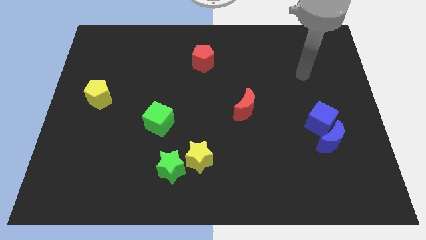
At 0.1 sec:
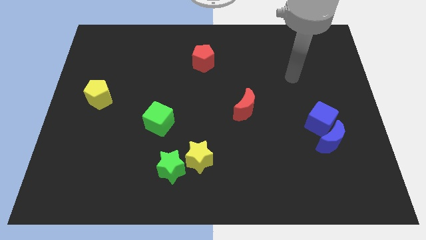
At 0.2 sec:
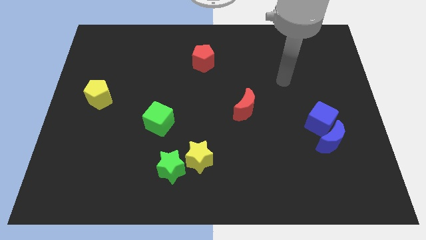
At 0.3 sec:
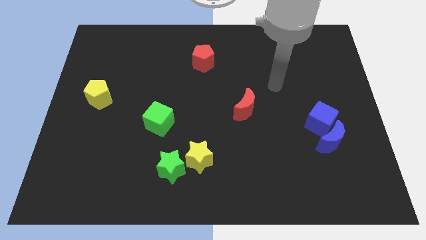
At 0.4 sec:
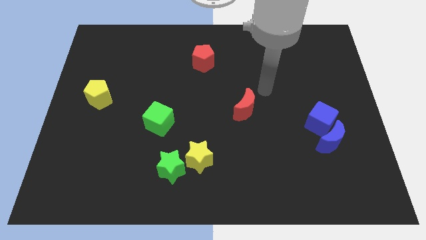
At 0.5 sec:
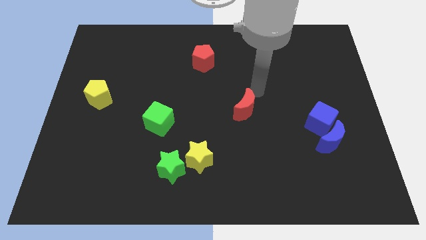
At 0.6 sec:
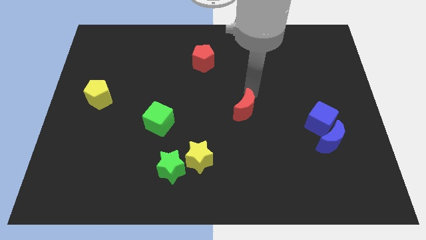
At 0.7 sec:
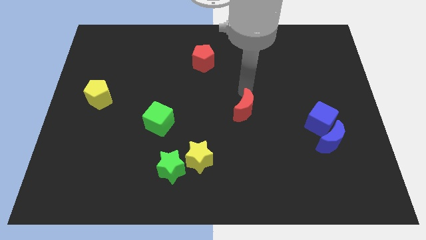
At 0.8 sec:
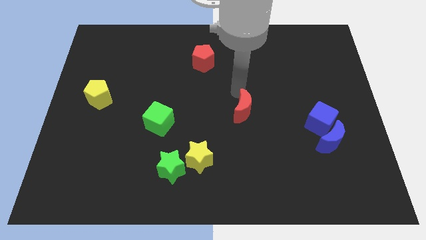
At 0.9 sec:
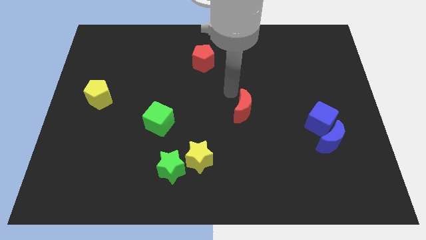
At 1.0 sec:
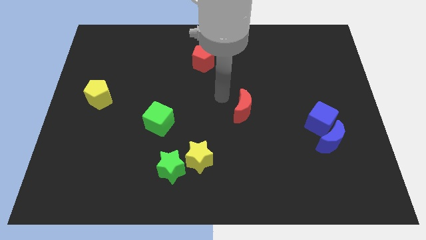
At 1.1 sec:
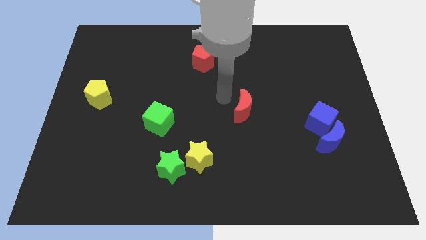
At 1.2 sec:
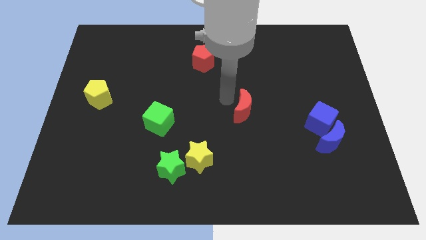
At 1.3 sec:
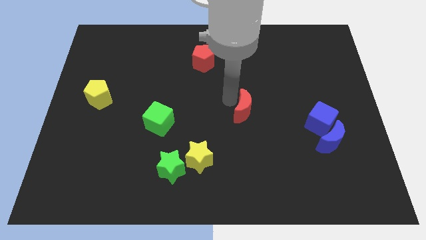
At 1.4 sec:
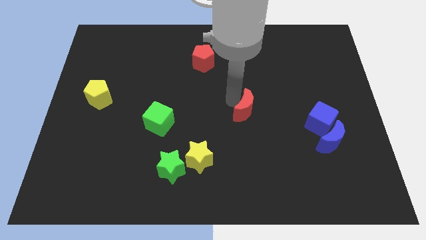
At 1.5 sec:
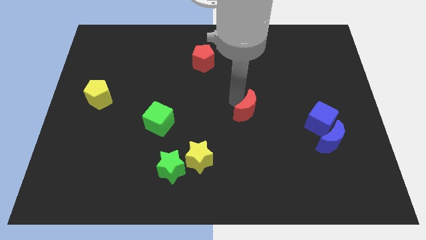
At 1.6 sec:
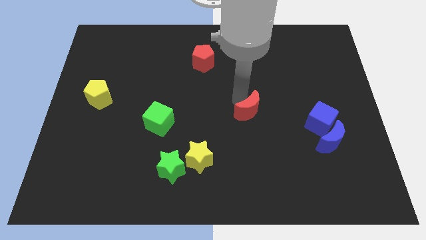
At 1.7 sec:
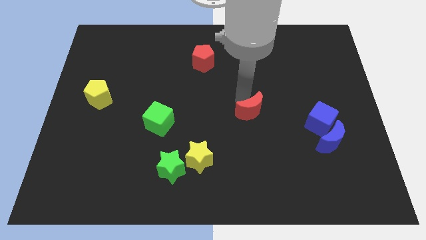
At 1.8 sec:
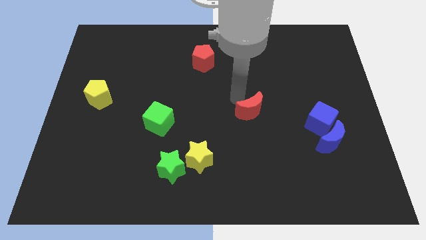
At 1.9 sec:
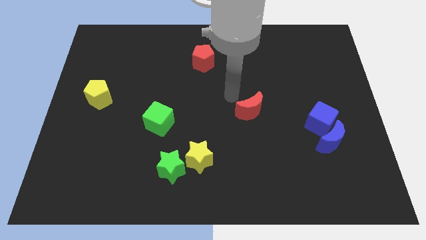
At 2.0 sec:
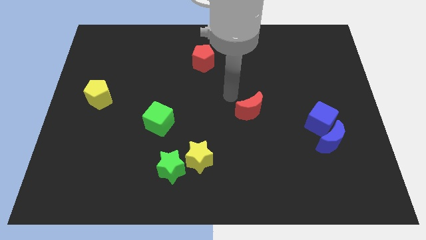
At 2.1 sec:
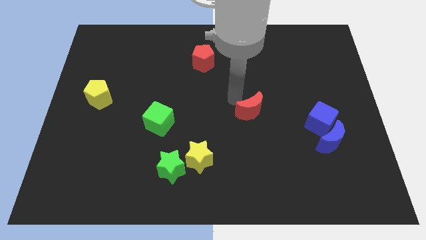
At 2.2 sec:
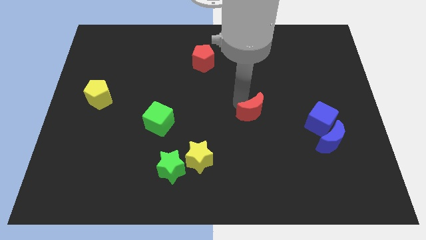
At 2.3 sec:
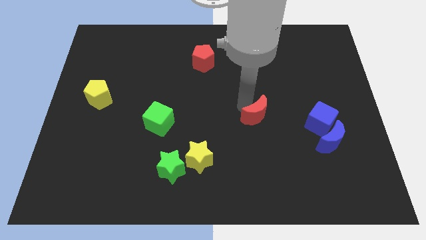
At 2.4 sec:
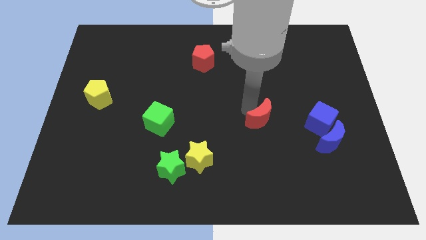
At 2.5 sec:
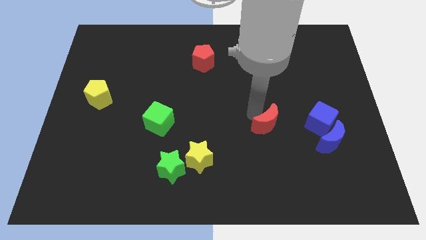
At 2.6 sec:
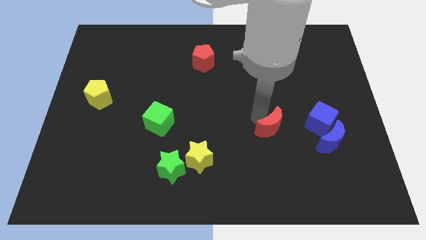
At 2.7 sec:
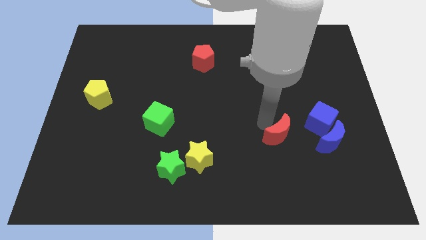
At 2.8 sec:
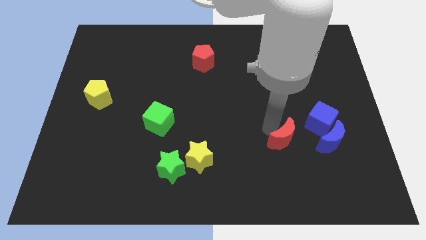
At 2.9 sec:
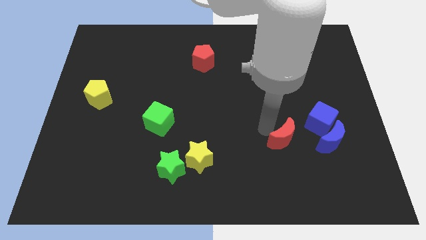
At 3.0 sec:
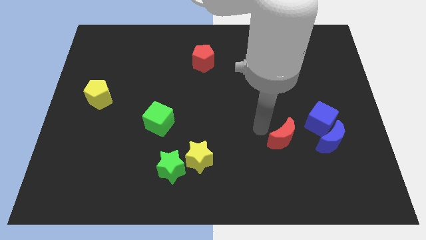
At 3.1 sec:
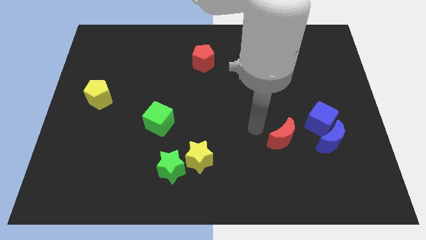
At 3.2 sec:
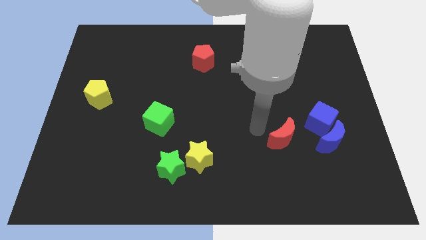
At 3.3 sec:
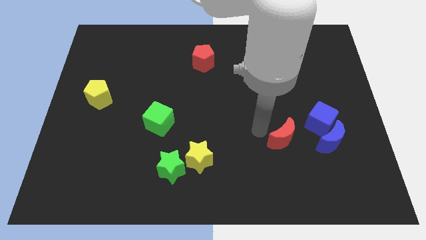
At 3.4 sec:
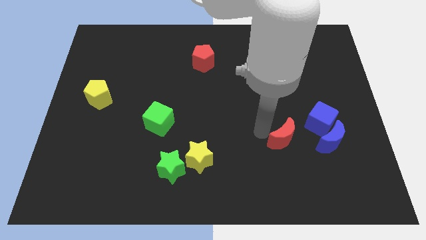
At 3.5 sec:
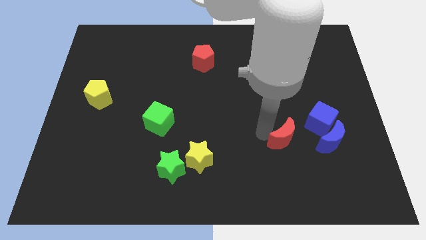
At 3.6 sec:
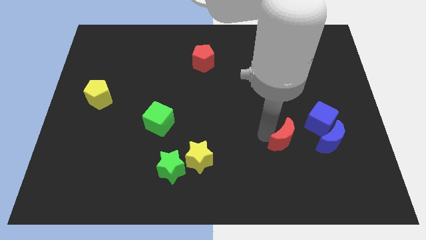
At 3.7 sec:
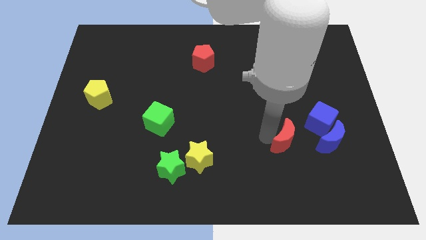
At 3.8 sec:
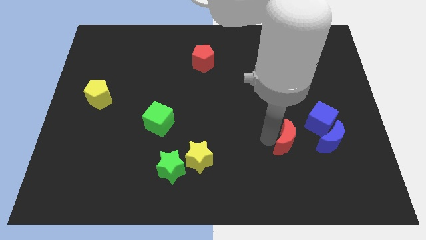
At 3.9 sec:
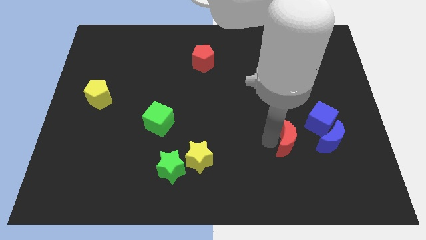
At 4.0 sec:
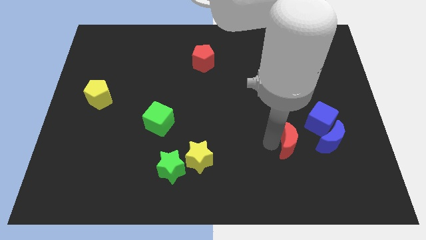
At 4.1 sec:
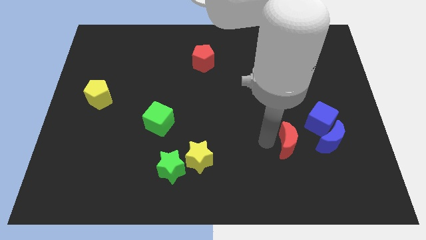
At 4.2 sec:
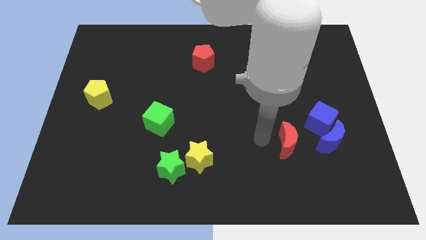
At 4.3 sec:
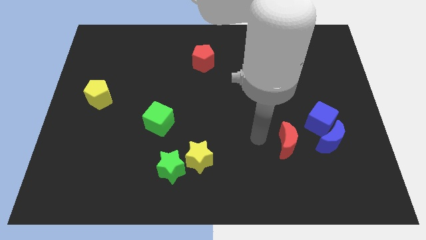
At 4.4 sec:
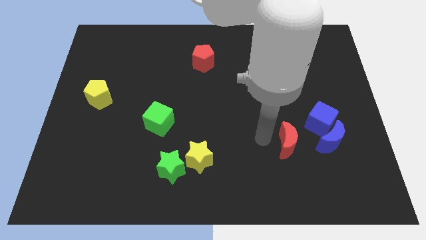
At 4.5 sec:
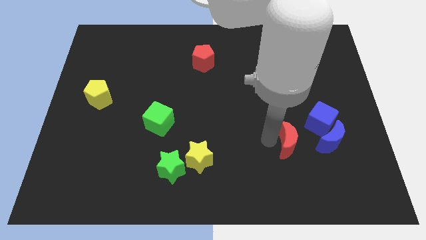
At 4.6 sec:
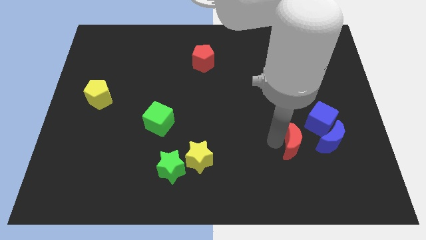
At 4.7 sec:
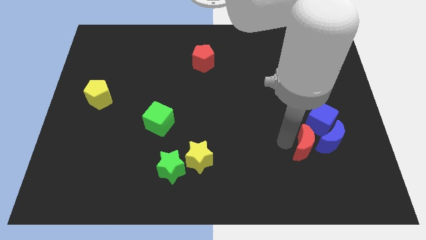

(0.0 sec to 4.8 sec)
put the red moon below the blue cube

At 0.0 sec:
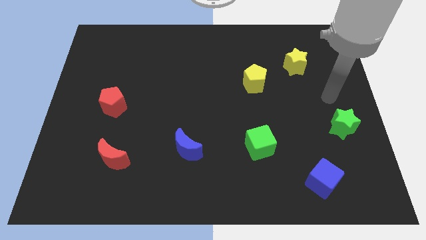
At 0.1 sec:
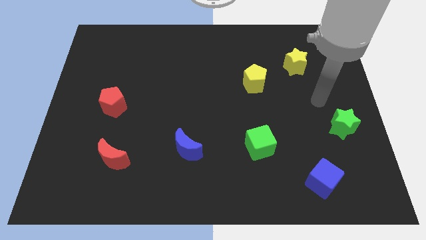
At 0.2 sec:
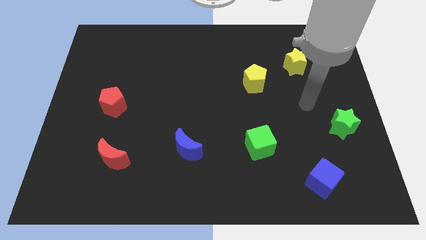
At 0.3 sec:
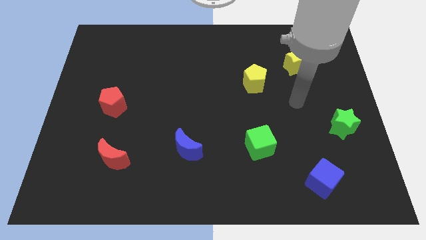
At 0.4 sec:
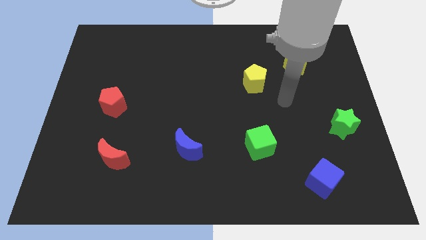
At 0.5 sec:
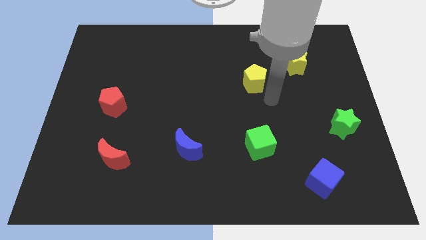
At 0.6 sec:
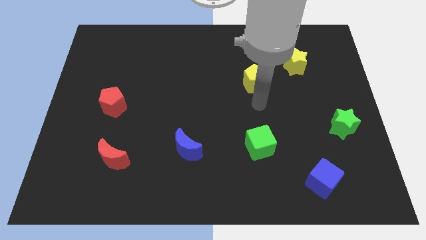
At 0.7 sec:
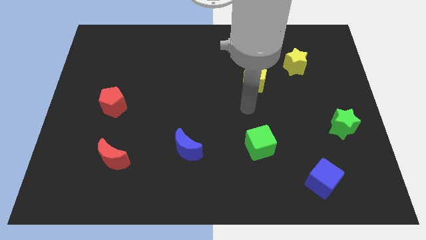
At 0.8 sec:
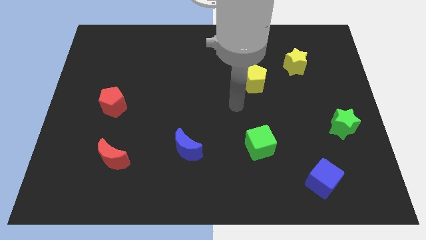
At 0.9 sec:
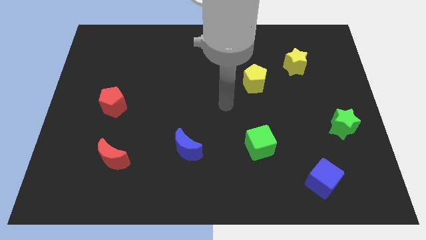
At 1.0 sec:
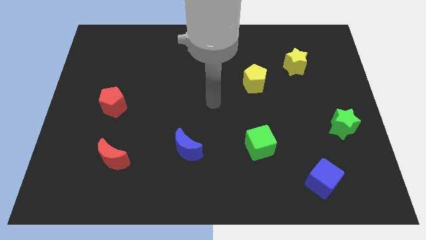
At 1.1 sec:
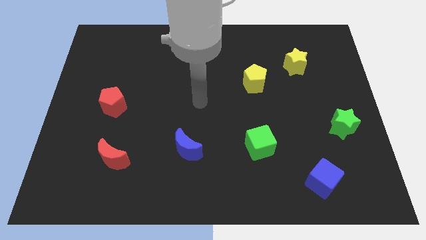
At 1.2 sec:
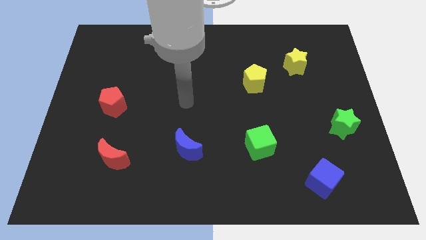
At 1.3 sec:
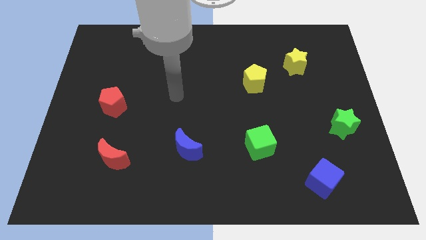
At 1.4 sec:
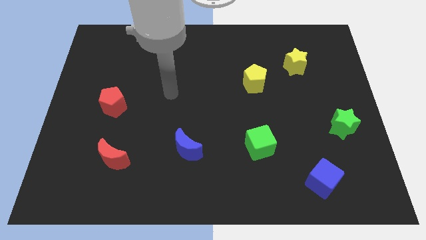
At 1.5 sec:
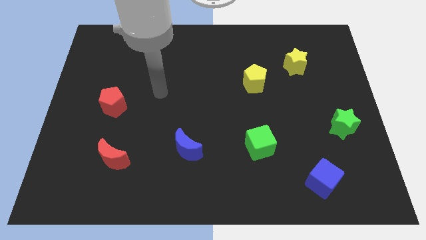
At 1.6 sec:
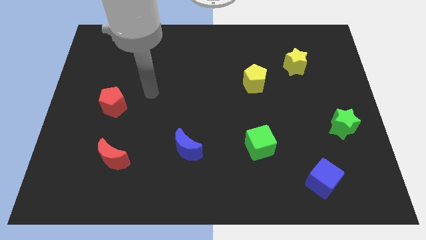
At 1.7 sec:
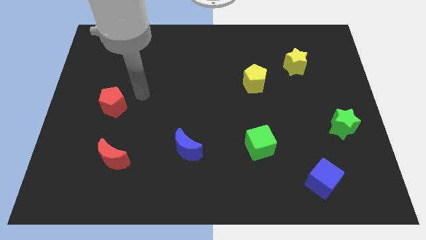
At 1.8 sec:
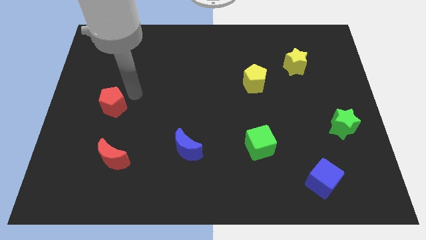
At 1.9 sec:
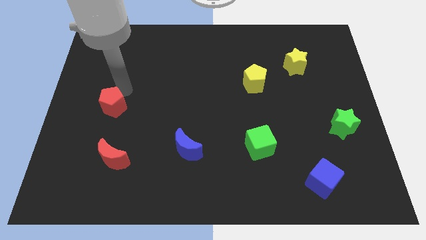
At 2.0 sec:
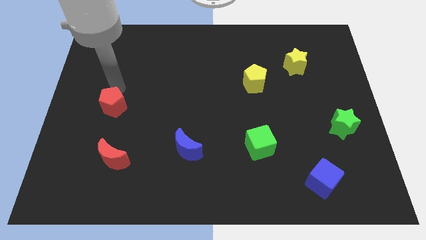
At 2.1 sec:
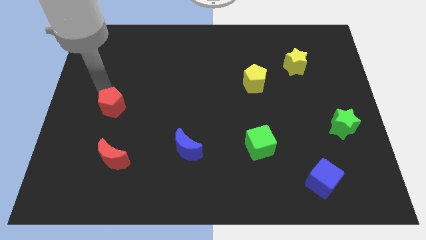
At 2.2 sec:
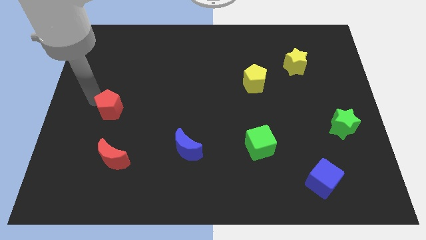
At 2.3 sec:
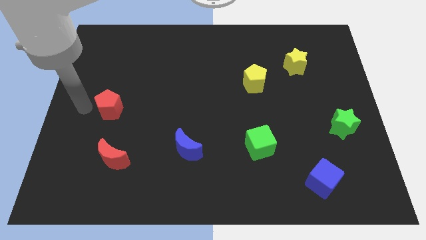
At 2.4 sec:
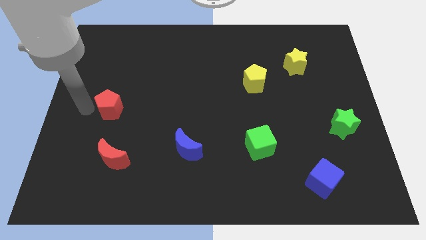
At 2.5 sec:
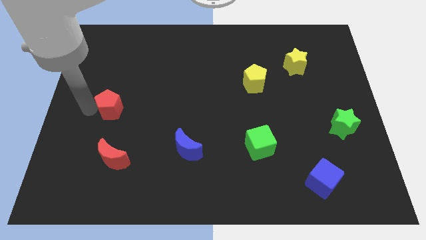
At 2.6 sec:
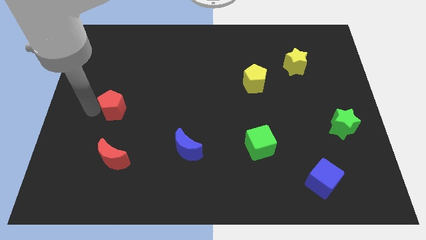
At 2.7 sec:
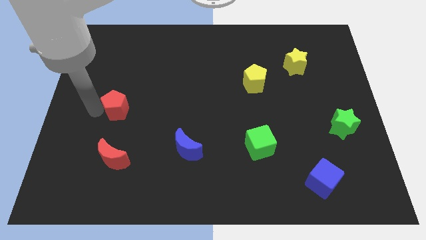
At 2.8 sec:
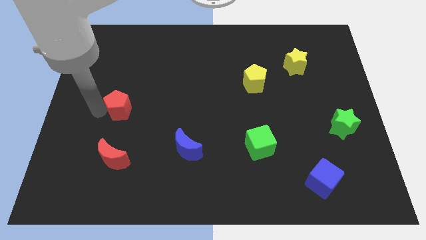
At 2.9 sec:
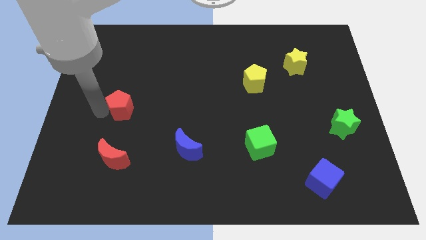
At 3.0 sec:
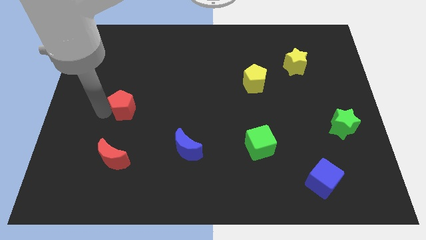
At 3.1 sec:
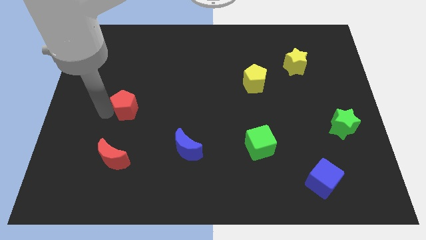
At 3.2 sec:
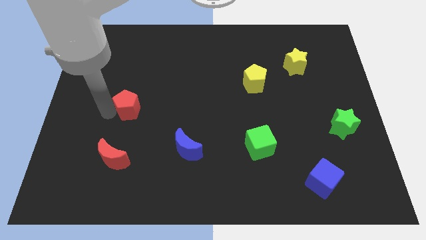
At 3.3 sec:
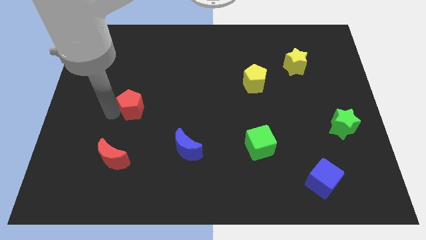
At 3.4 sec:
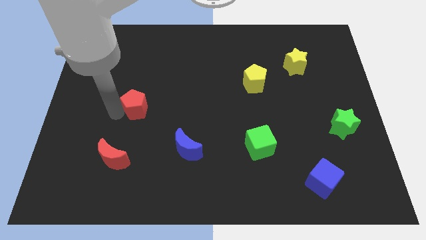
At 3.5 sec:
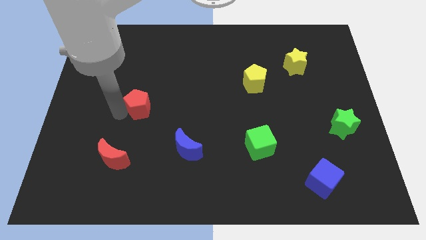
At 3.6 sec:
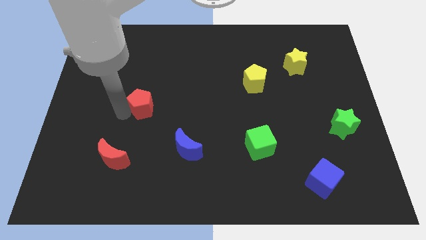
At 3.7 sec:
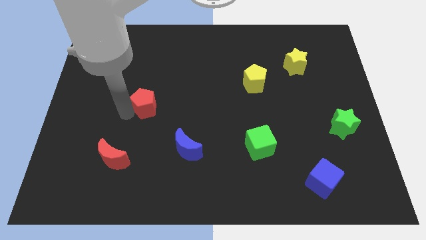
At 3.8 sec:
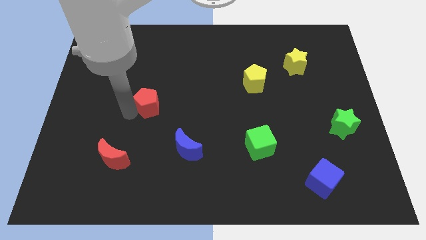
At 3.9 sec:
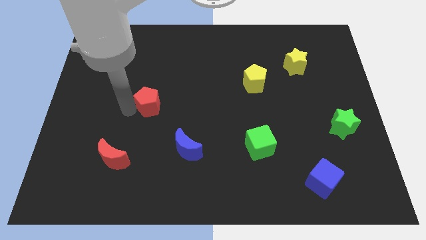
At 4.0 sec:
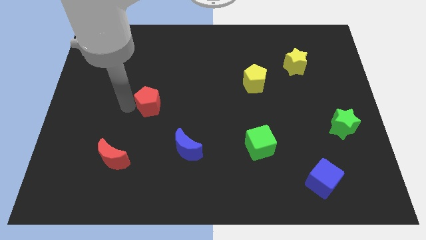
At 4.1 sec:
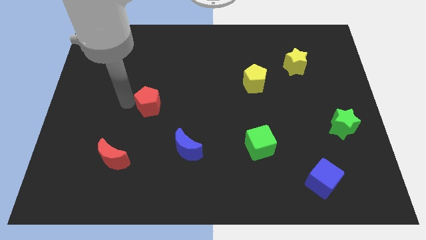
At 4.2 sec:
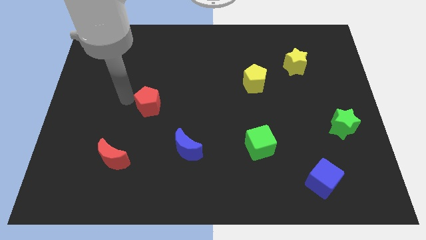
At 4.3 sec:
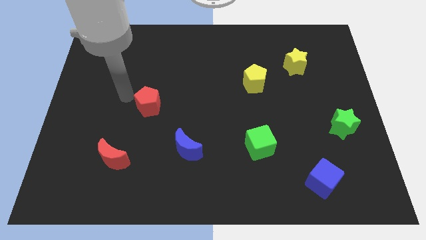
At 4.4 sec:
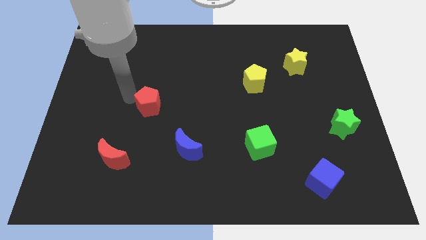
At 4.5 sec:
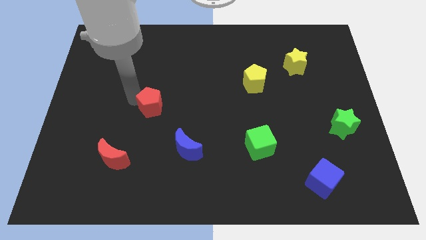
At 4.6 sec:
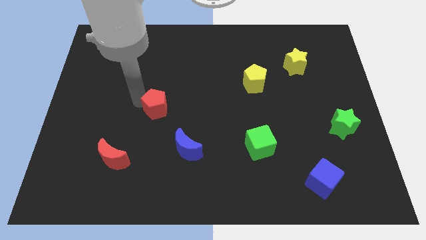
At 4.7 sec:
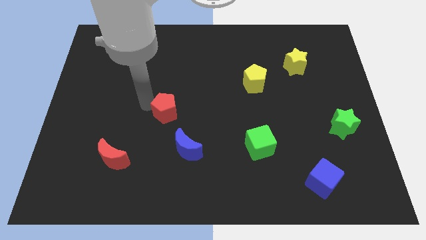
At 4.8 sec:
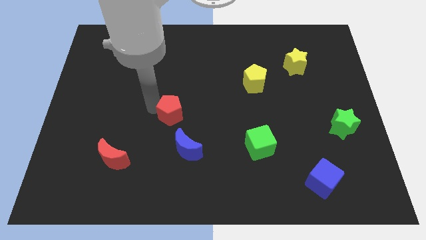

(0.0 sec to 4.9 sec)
move the red pentagon above the blue moon
